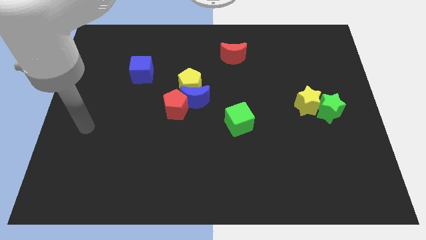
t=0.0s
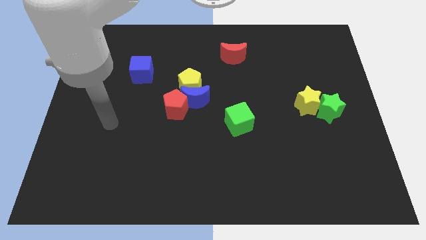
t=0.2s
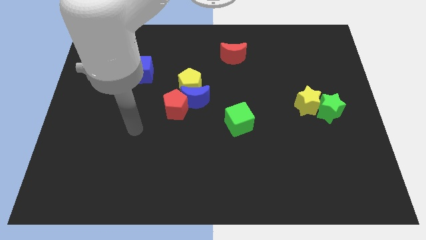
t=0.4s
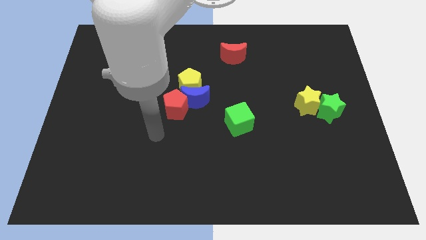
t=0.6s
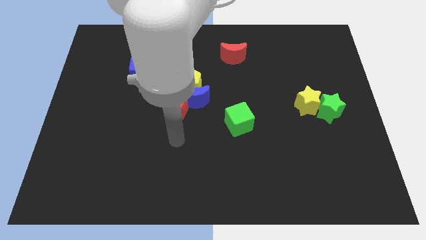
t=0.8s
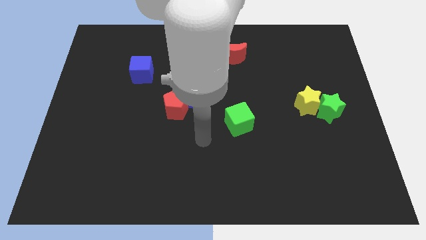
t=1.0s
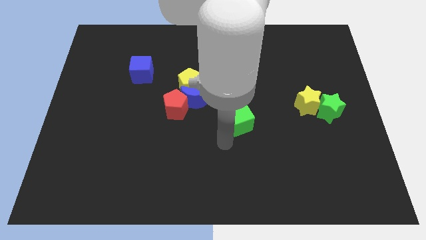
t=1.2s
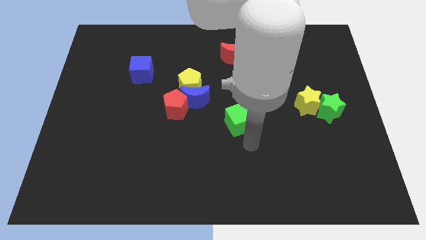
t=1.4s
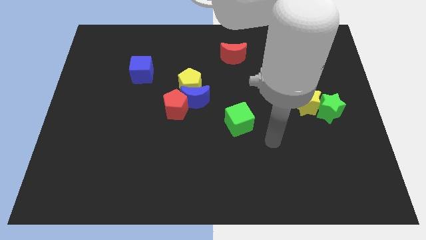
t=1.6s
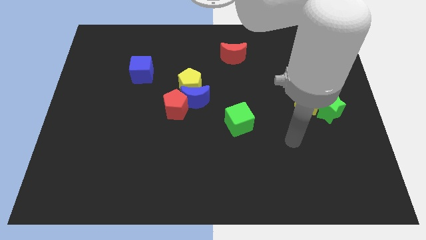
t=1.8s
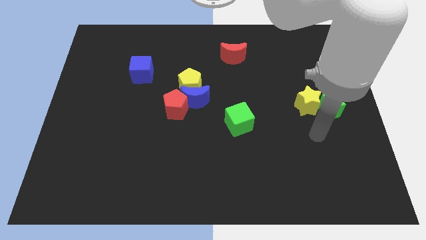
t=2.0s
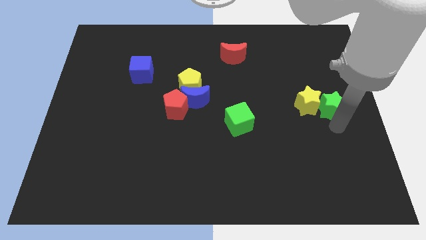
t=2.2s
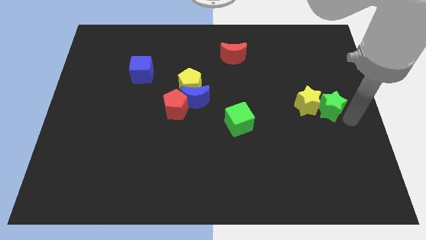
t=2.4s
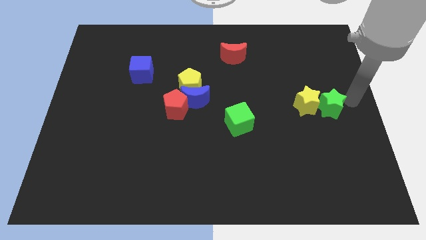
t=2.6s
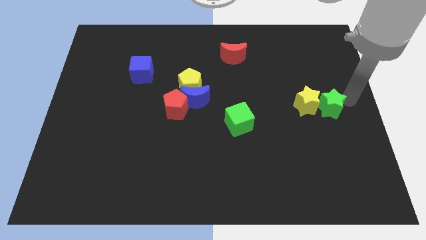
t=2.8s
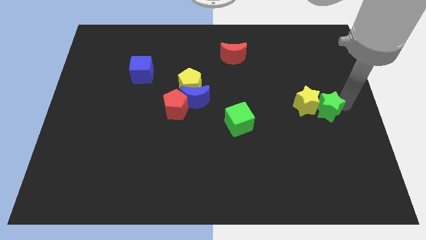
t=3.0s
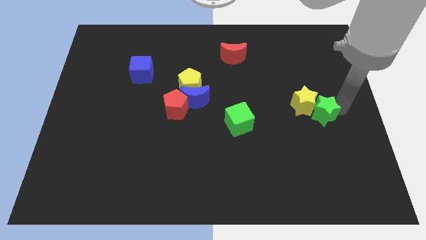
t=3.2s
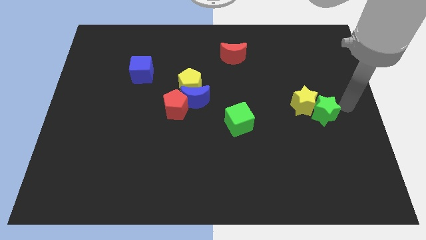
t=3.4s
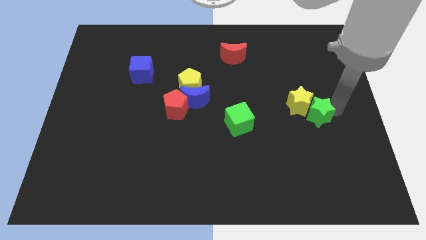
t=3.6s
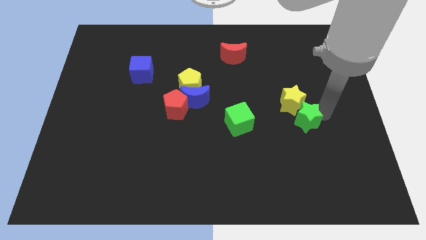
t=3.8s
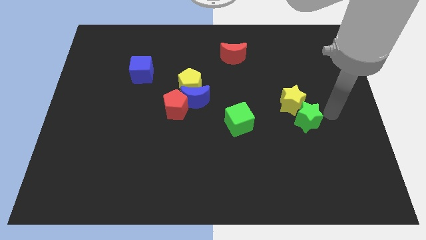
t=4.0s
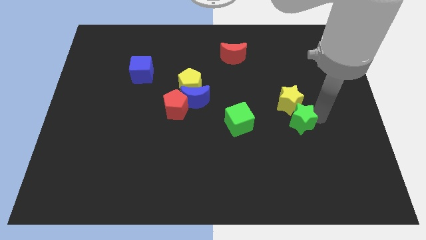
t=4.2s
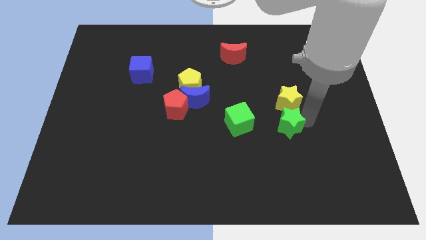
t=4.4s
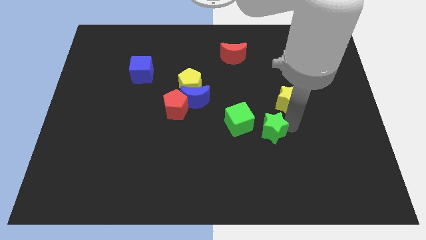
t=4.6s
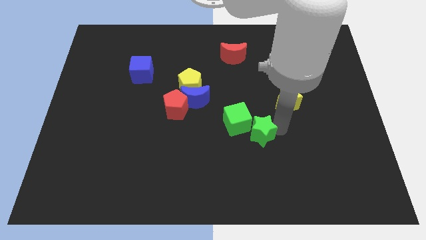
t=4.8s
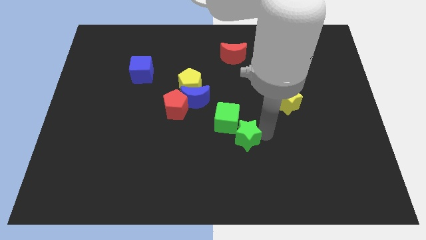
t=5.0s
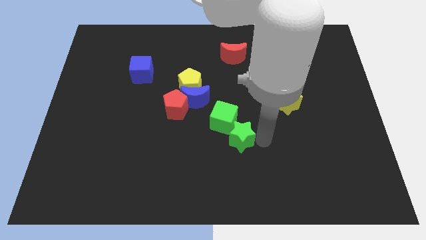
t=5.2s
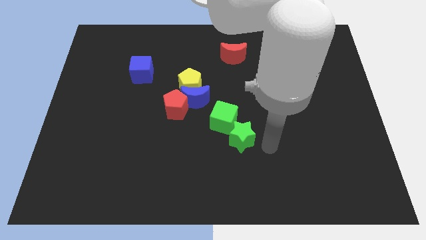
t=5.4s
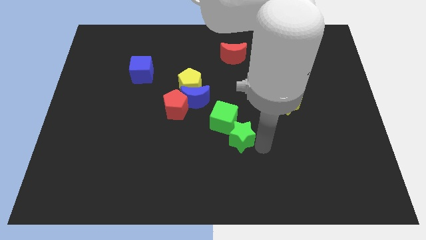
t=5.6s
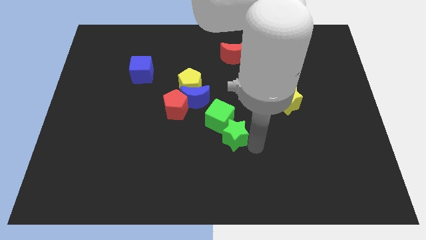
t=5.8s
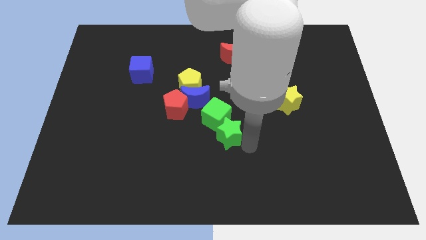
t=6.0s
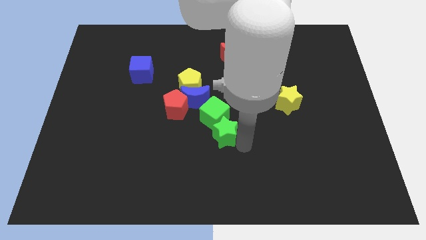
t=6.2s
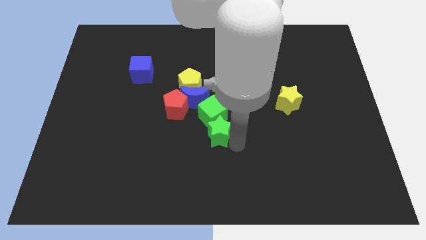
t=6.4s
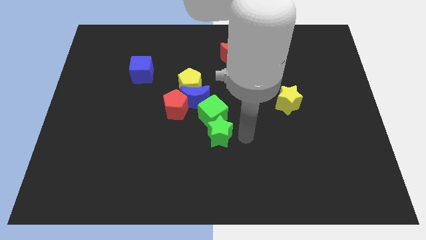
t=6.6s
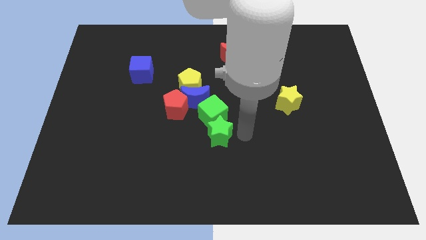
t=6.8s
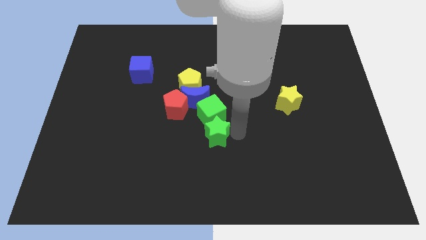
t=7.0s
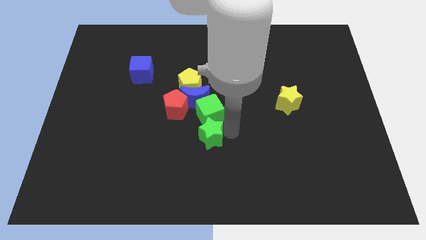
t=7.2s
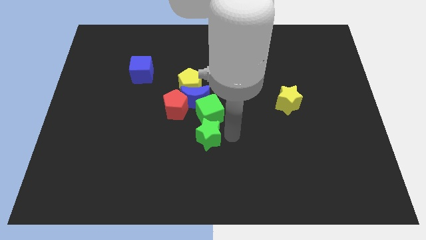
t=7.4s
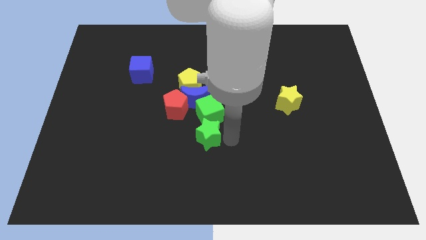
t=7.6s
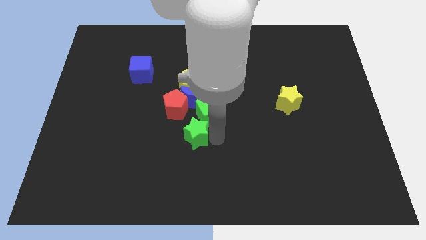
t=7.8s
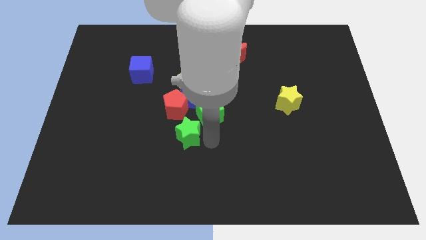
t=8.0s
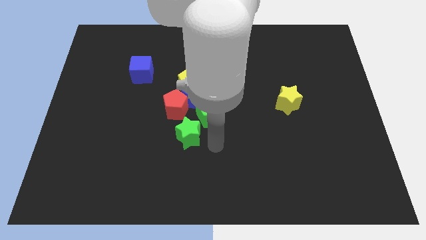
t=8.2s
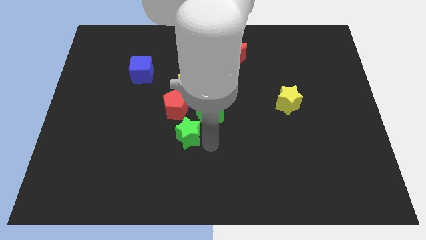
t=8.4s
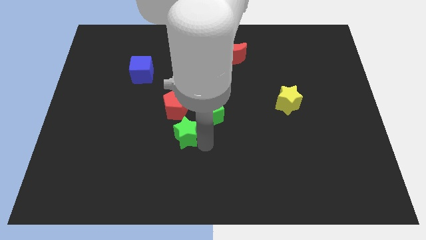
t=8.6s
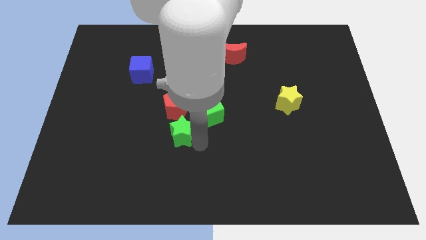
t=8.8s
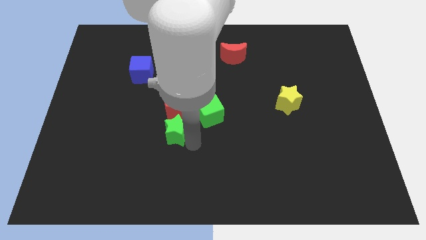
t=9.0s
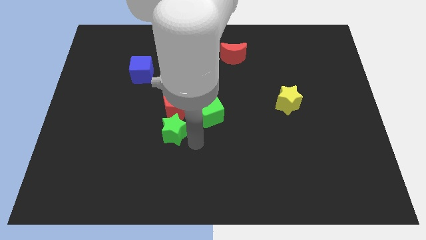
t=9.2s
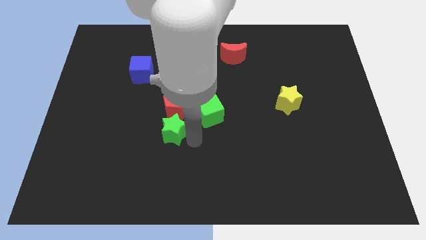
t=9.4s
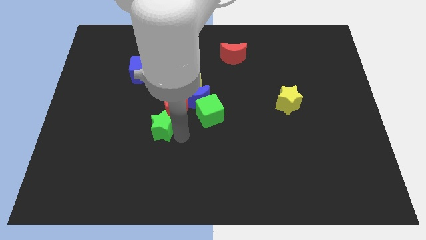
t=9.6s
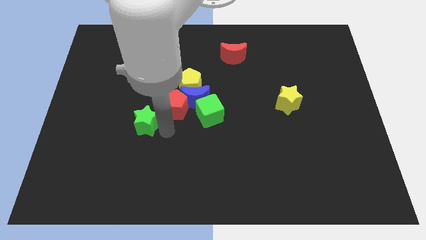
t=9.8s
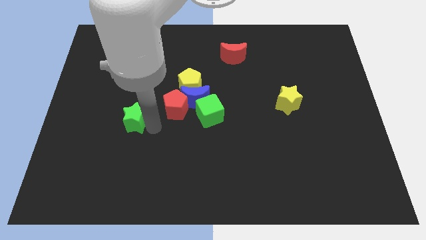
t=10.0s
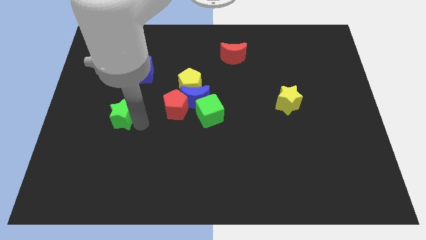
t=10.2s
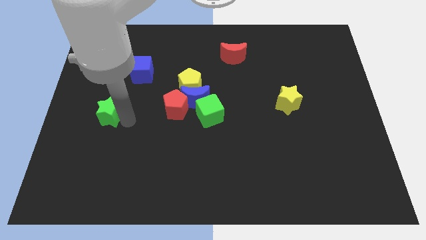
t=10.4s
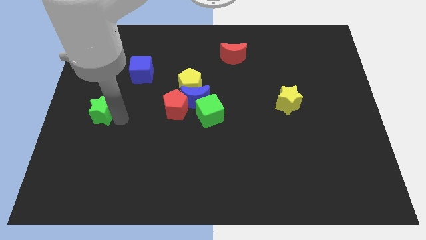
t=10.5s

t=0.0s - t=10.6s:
slide the green star to the center left

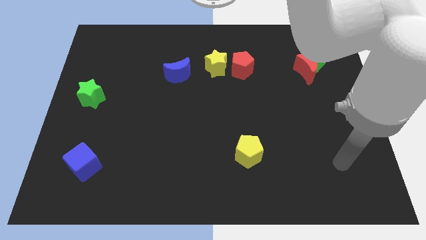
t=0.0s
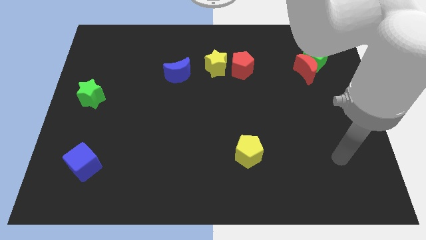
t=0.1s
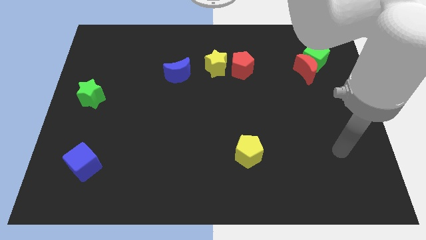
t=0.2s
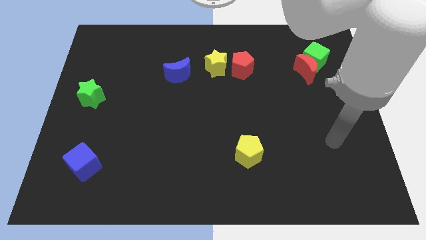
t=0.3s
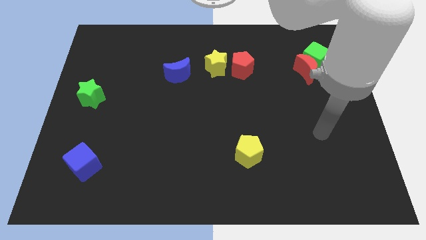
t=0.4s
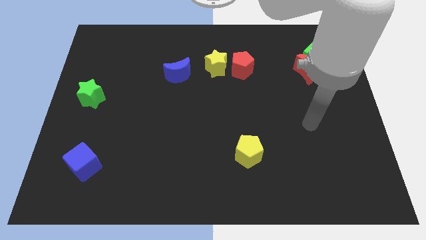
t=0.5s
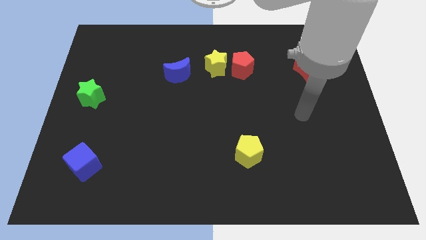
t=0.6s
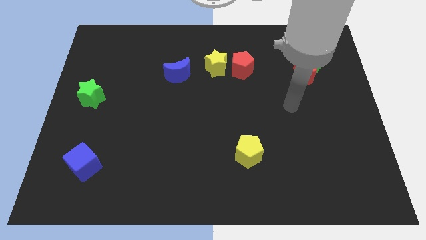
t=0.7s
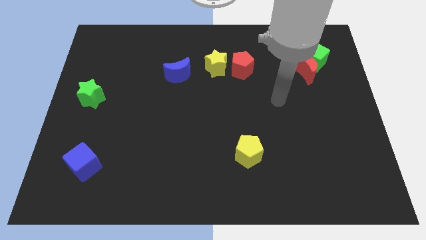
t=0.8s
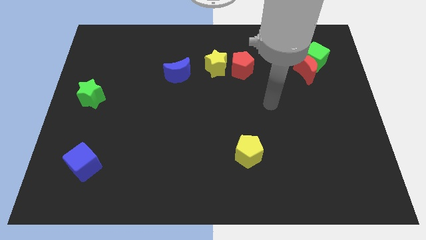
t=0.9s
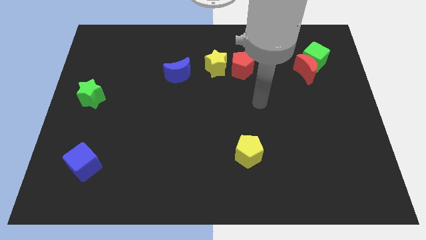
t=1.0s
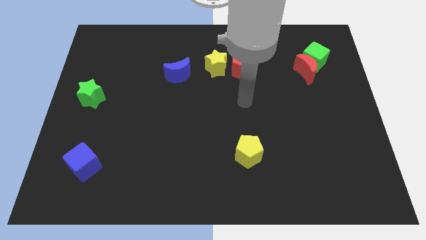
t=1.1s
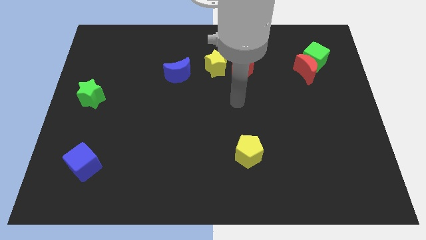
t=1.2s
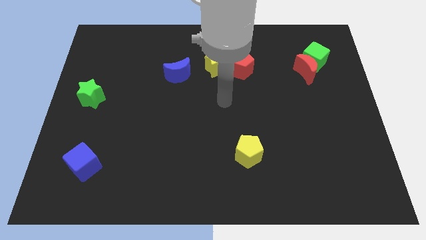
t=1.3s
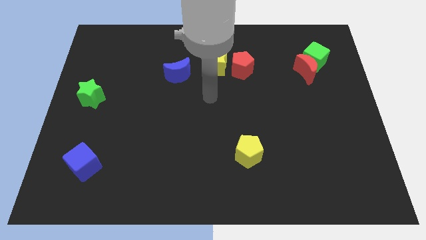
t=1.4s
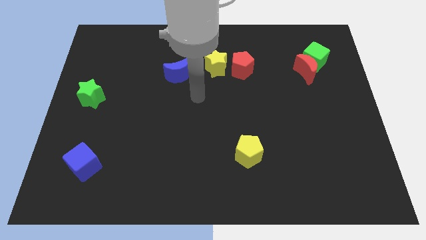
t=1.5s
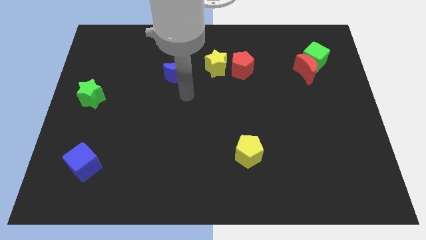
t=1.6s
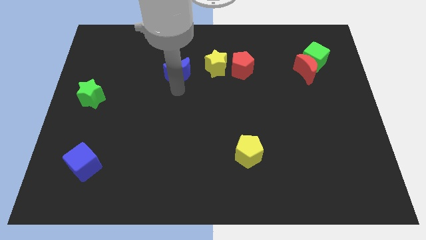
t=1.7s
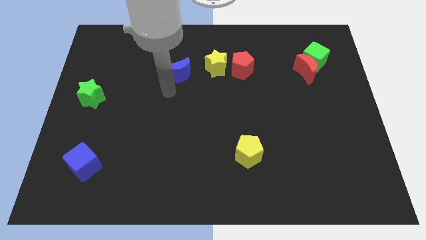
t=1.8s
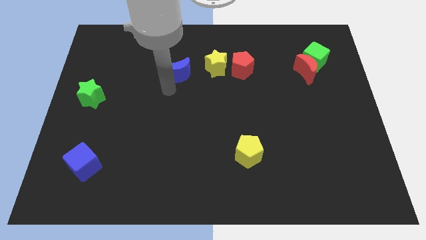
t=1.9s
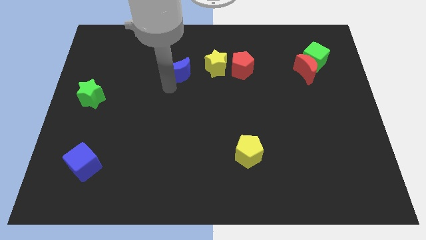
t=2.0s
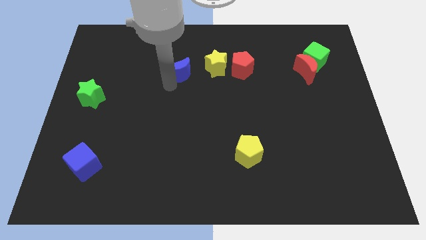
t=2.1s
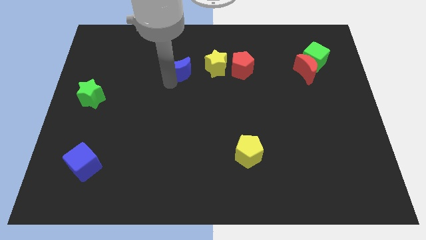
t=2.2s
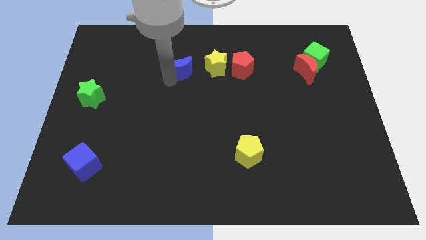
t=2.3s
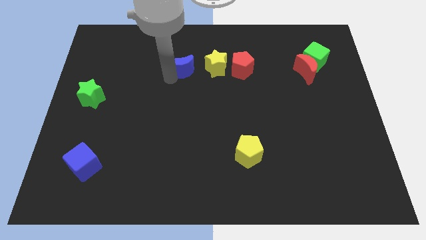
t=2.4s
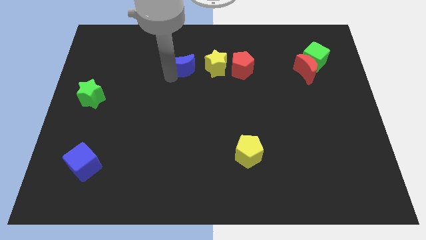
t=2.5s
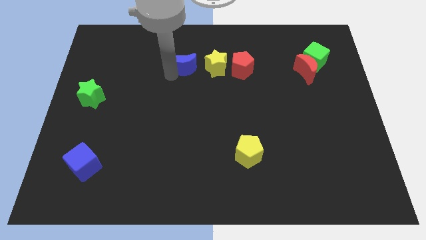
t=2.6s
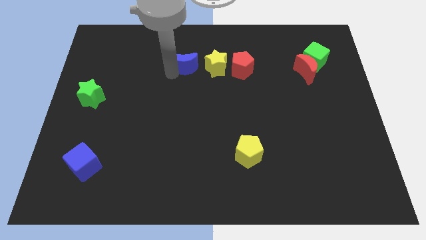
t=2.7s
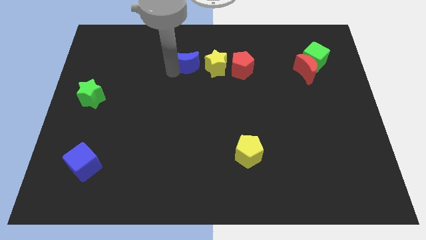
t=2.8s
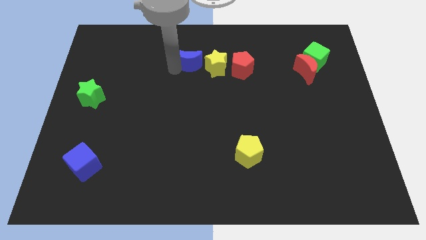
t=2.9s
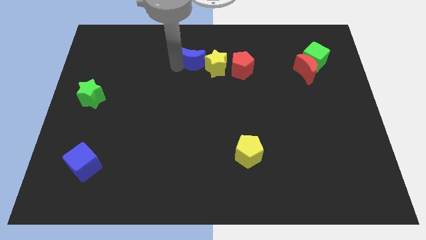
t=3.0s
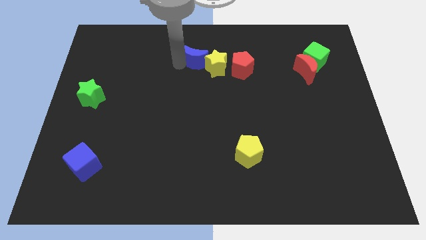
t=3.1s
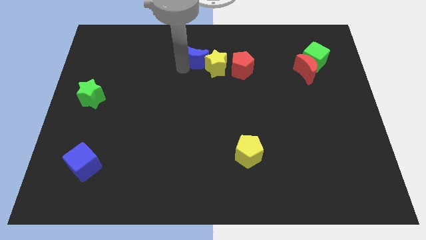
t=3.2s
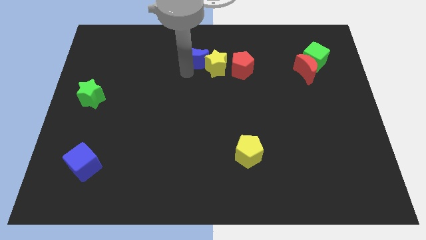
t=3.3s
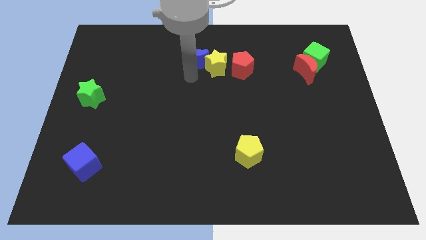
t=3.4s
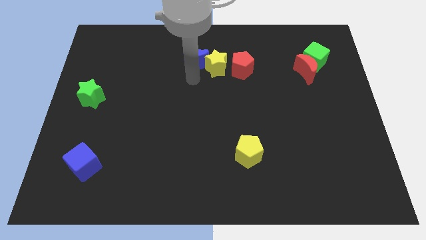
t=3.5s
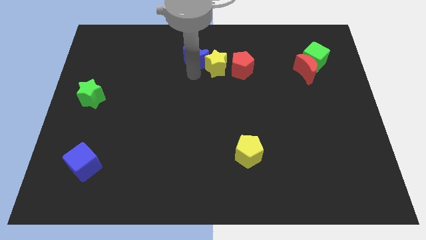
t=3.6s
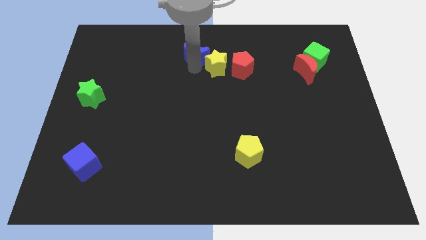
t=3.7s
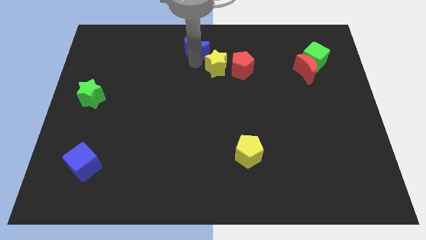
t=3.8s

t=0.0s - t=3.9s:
put the blue moon to the towards your base
